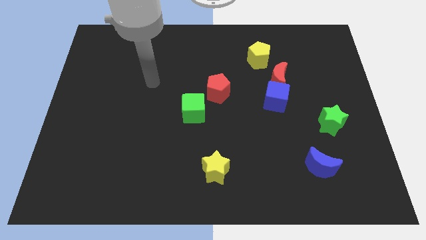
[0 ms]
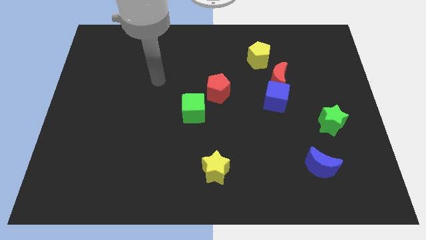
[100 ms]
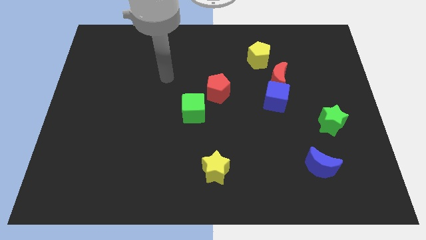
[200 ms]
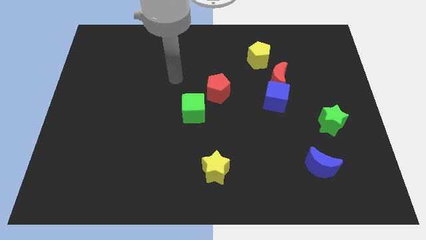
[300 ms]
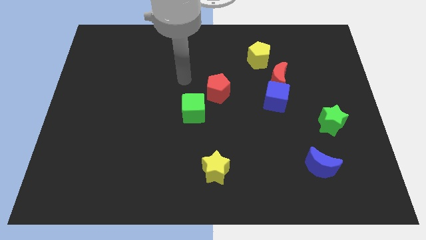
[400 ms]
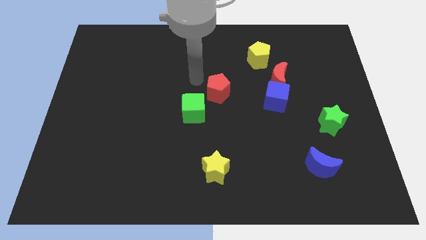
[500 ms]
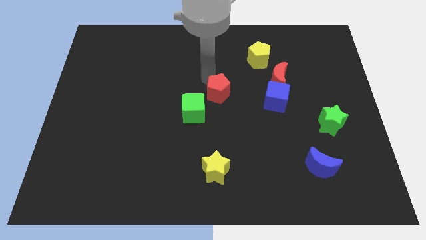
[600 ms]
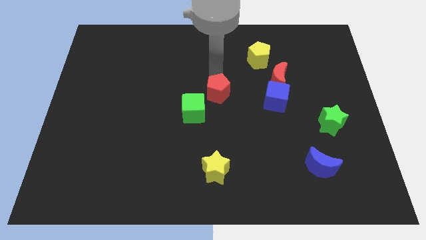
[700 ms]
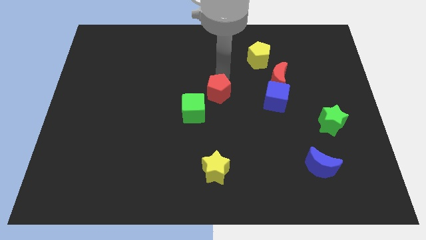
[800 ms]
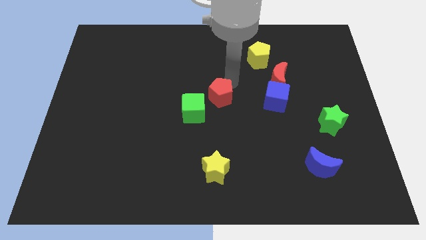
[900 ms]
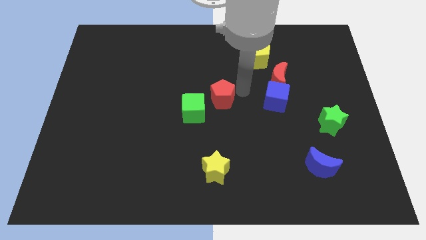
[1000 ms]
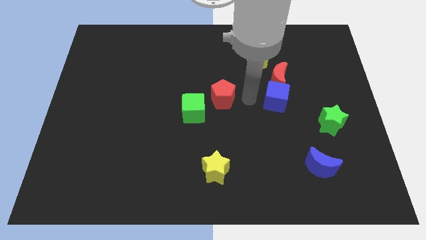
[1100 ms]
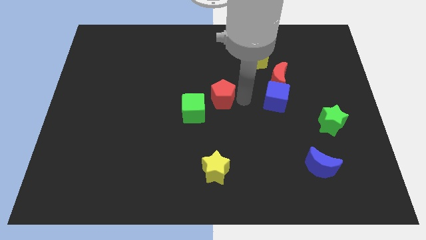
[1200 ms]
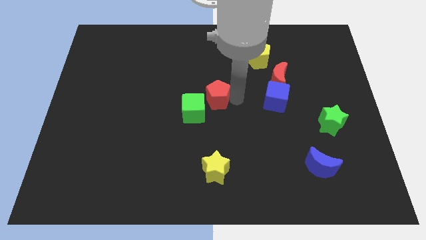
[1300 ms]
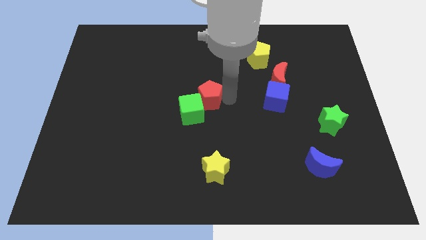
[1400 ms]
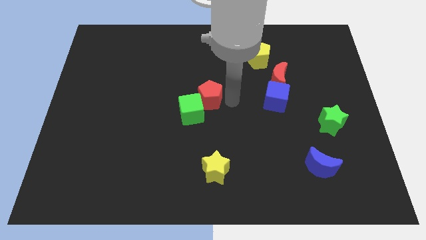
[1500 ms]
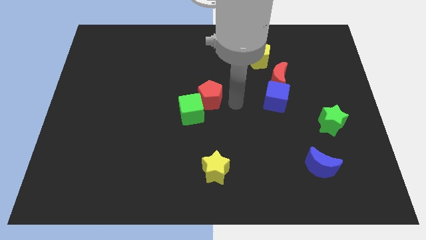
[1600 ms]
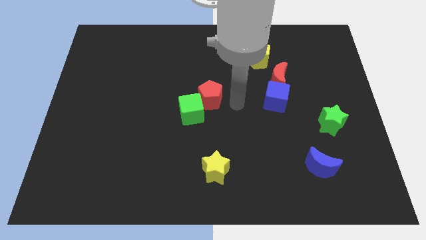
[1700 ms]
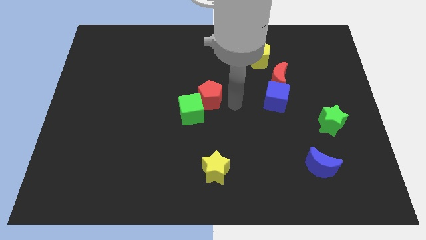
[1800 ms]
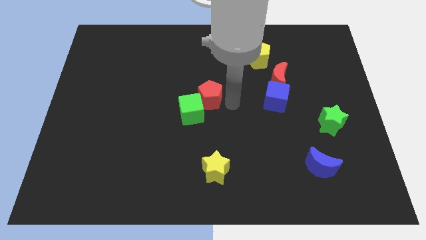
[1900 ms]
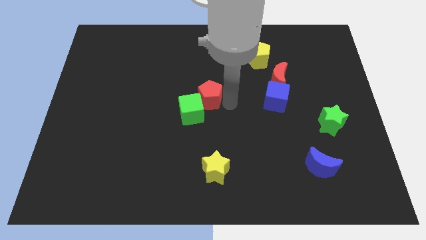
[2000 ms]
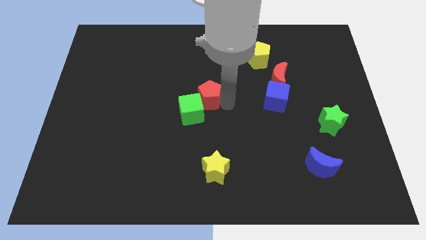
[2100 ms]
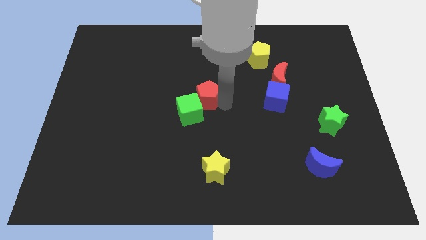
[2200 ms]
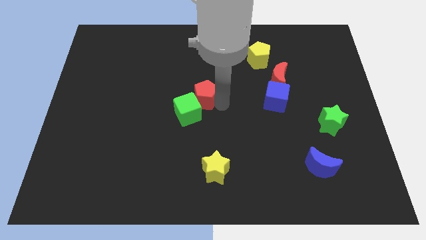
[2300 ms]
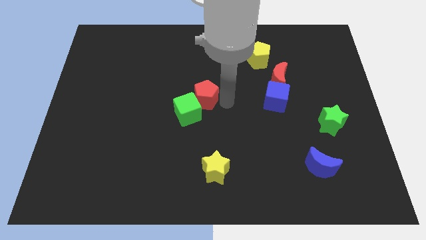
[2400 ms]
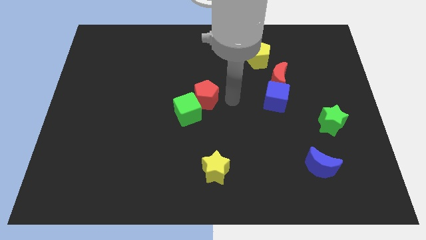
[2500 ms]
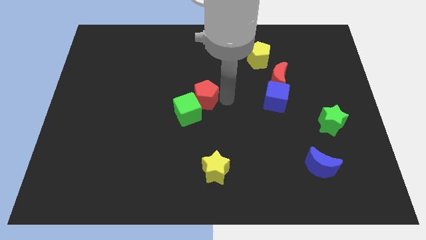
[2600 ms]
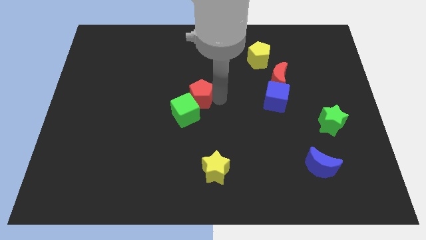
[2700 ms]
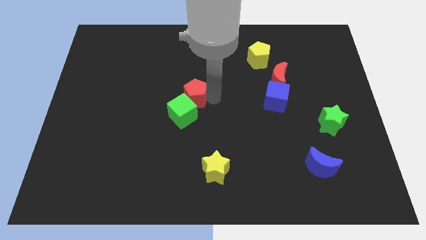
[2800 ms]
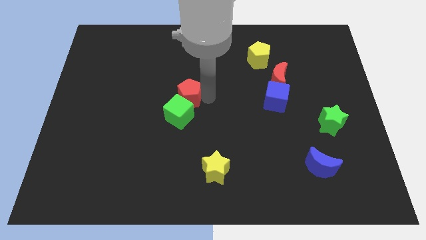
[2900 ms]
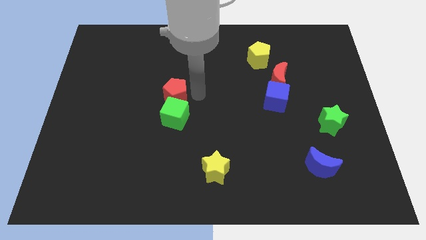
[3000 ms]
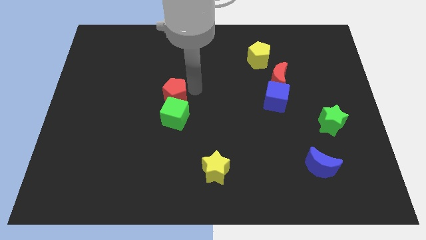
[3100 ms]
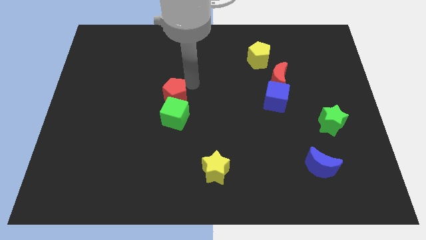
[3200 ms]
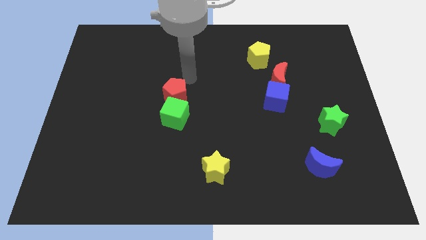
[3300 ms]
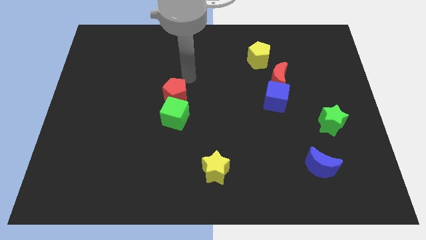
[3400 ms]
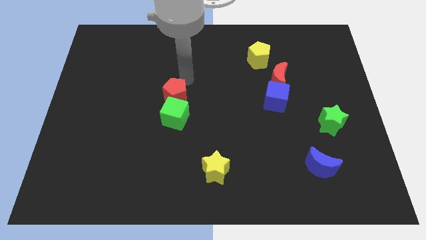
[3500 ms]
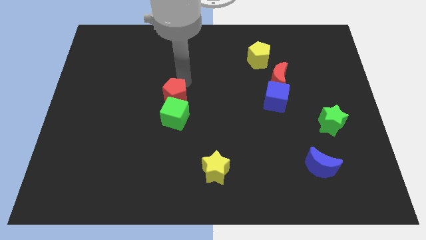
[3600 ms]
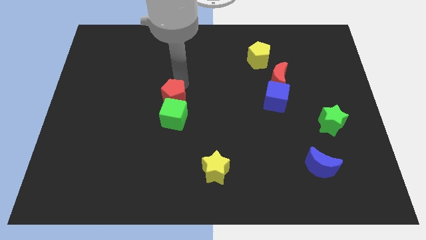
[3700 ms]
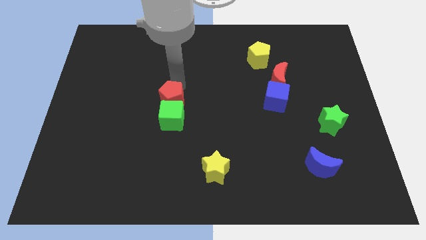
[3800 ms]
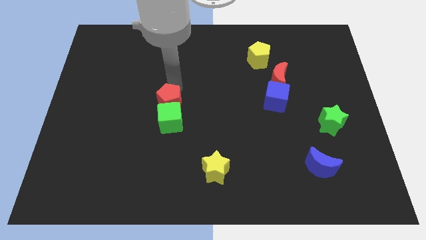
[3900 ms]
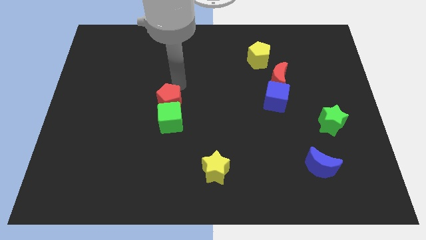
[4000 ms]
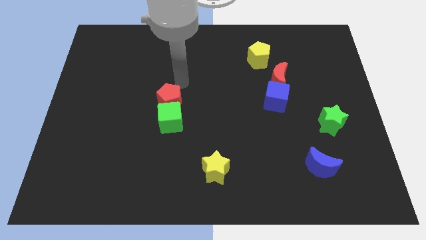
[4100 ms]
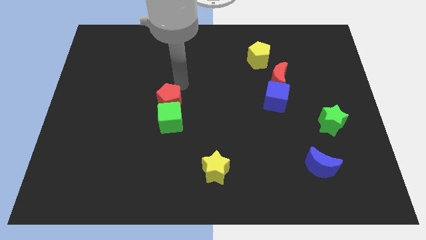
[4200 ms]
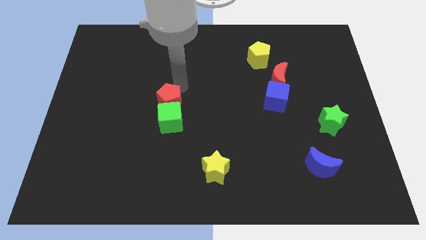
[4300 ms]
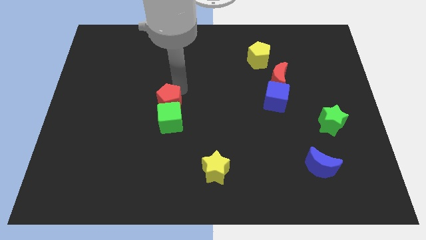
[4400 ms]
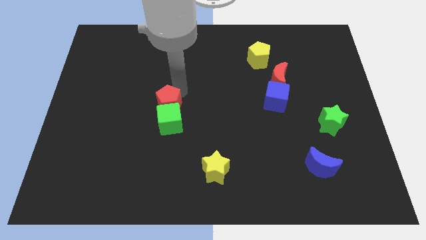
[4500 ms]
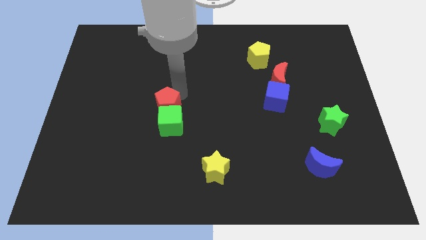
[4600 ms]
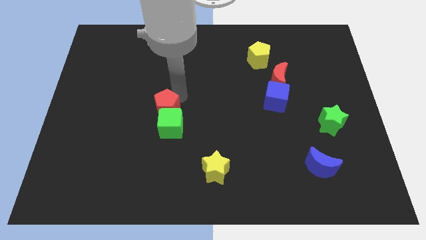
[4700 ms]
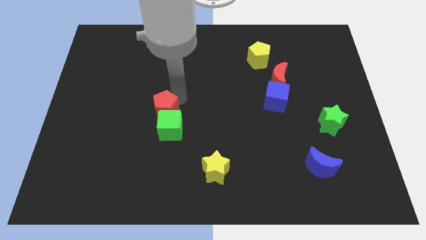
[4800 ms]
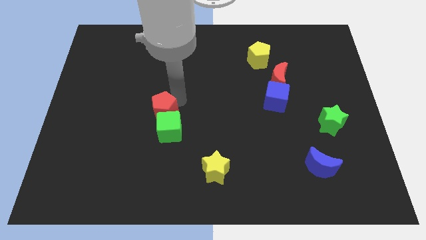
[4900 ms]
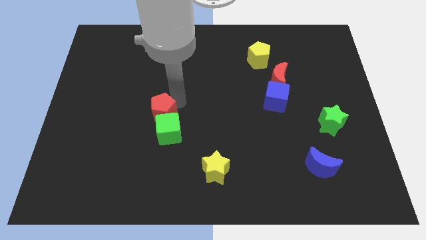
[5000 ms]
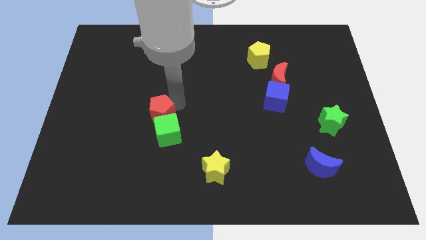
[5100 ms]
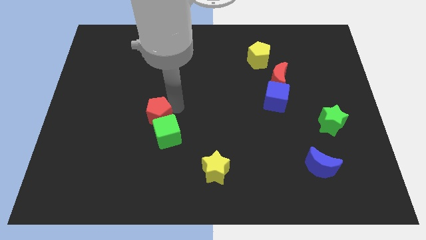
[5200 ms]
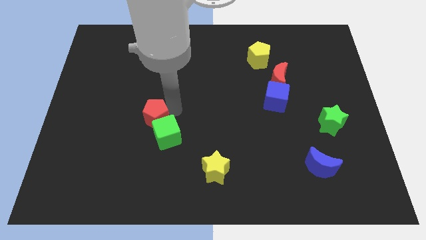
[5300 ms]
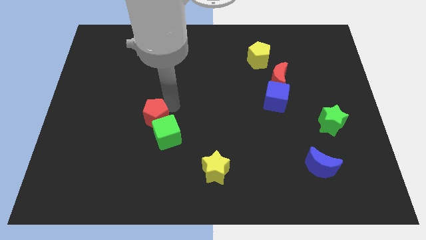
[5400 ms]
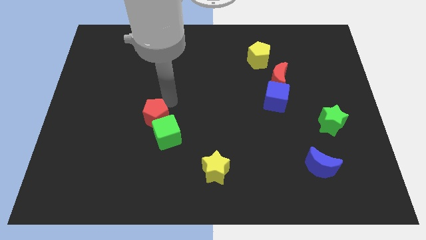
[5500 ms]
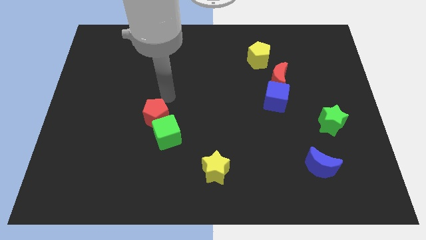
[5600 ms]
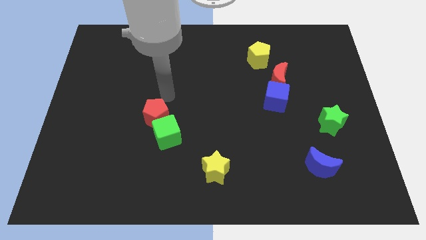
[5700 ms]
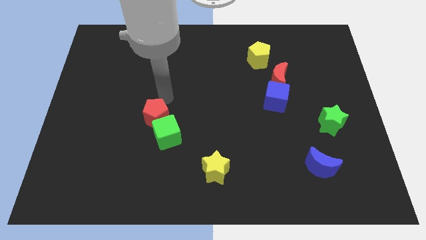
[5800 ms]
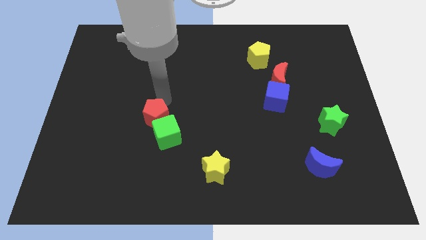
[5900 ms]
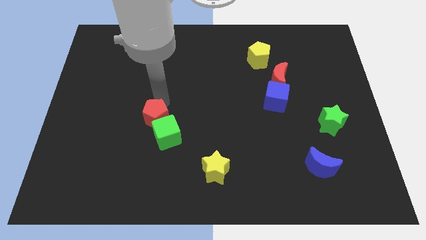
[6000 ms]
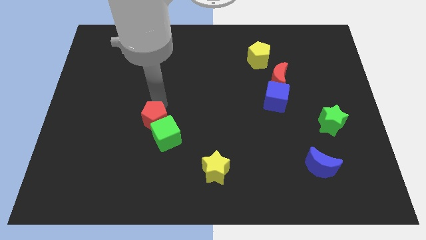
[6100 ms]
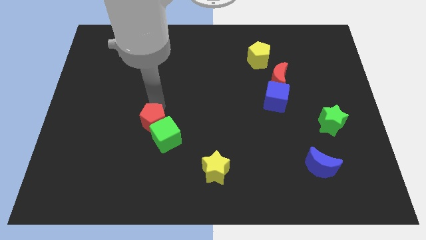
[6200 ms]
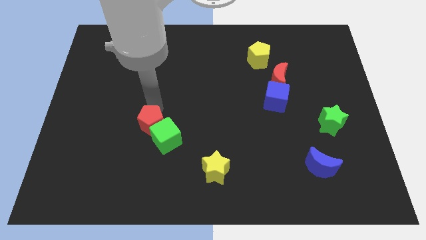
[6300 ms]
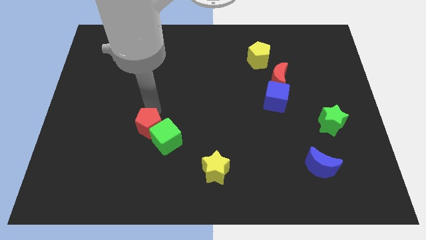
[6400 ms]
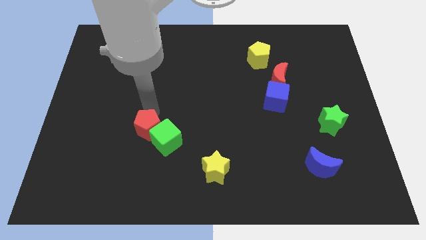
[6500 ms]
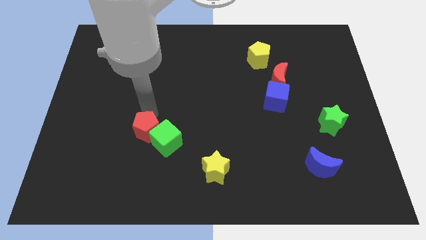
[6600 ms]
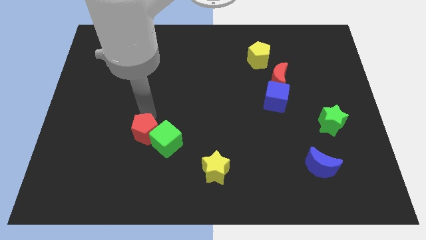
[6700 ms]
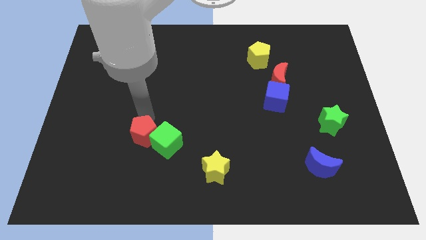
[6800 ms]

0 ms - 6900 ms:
slide the red pentagon down and to the left diagonally

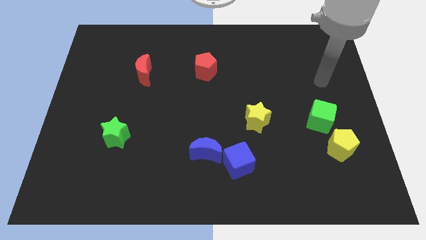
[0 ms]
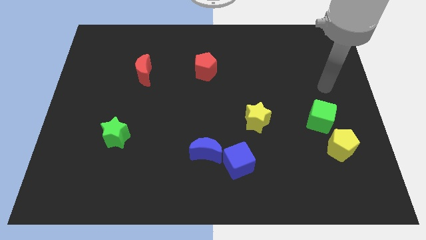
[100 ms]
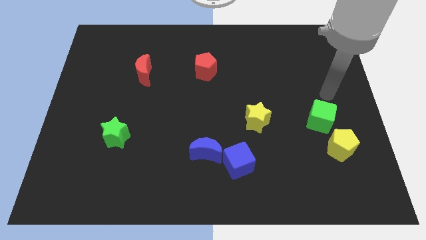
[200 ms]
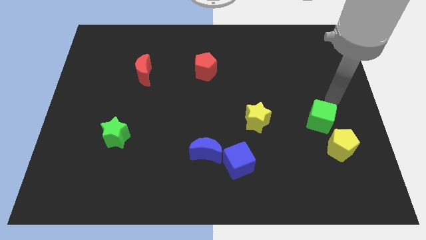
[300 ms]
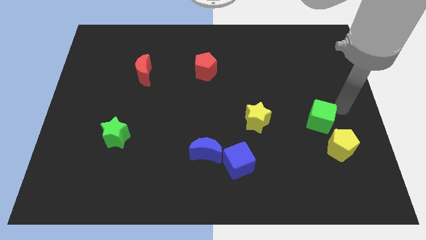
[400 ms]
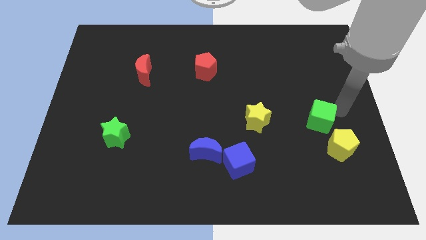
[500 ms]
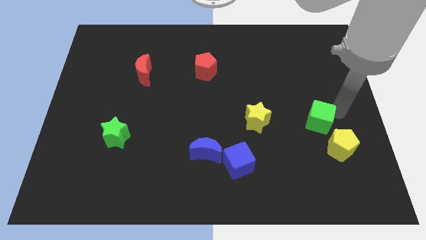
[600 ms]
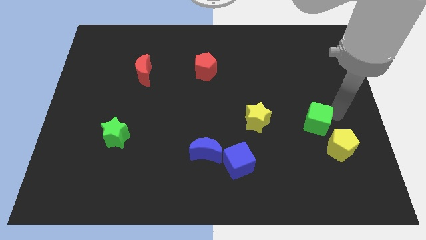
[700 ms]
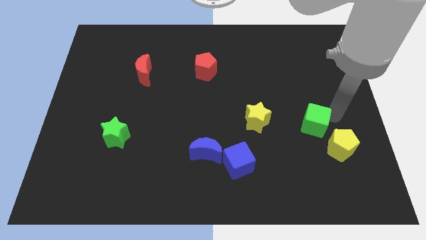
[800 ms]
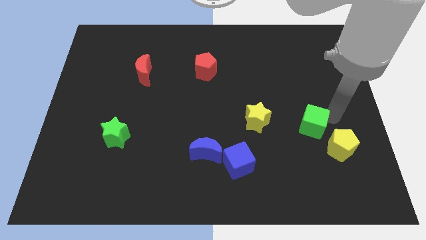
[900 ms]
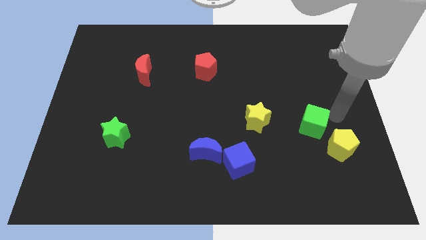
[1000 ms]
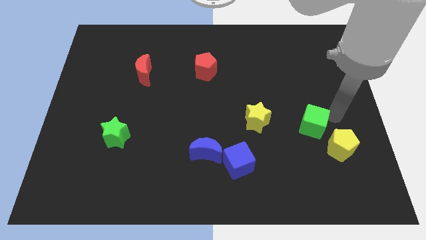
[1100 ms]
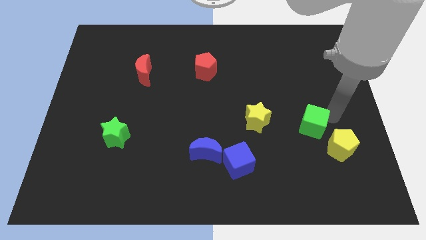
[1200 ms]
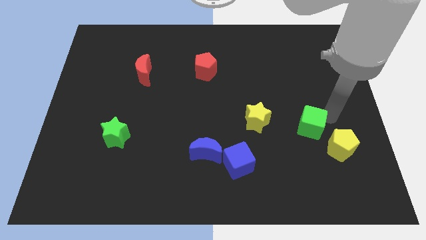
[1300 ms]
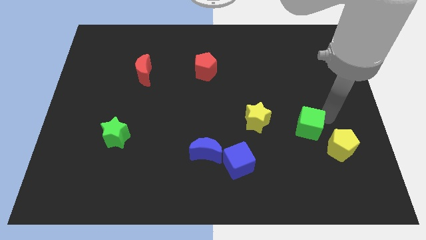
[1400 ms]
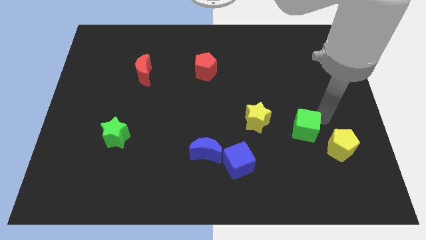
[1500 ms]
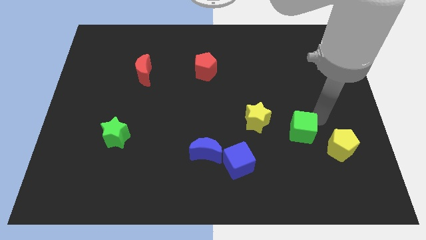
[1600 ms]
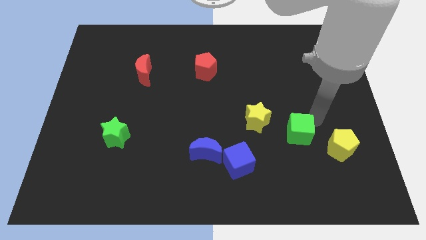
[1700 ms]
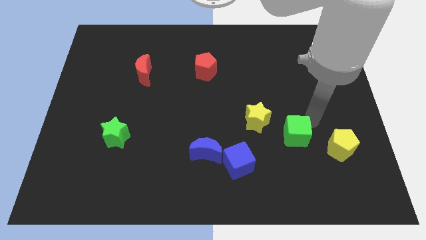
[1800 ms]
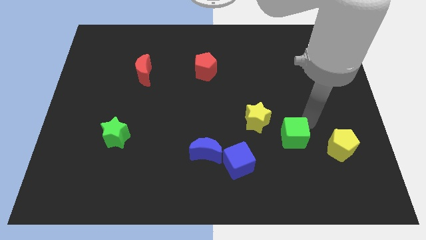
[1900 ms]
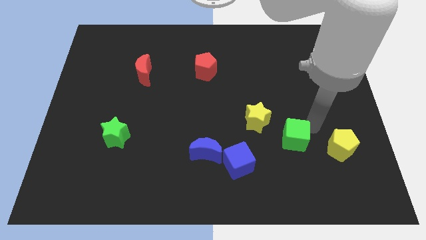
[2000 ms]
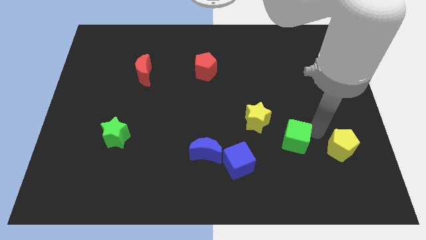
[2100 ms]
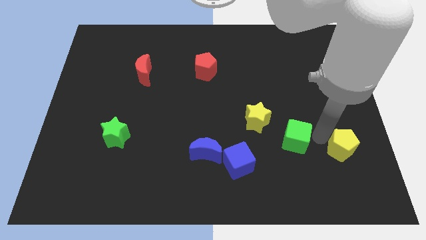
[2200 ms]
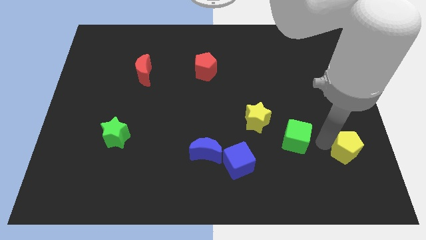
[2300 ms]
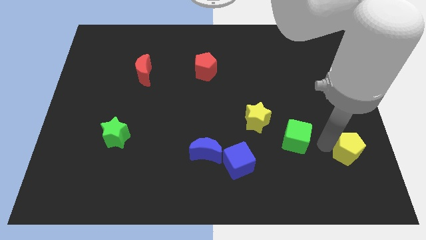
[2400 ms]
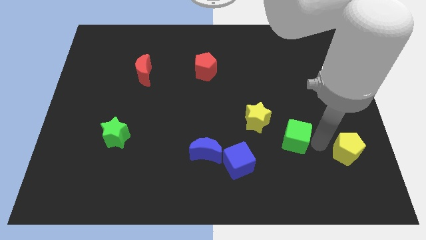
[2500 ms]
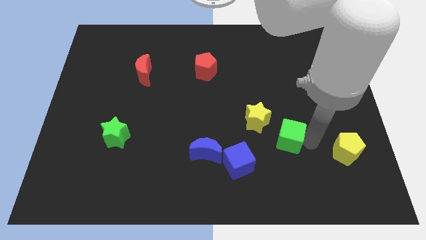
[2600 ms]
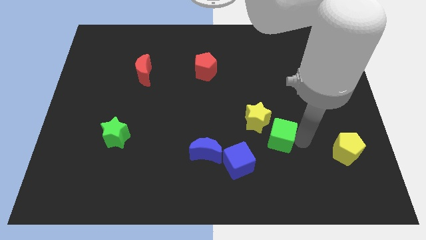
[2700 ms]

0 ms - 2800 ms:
push the green cube to the left a bit
